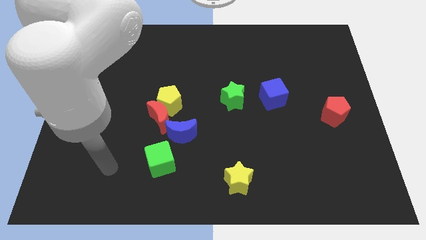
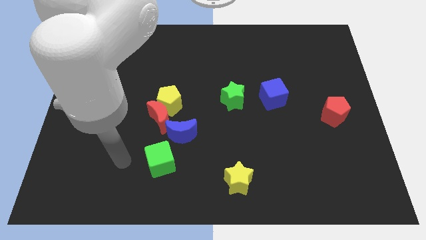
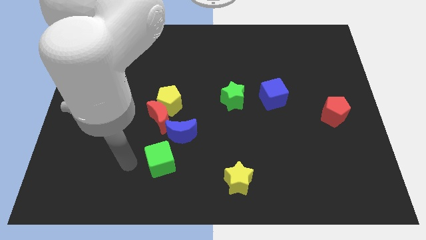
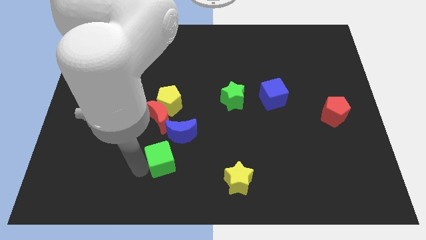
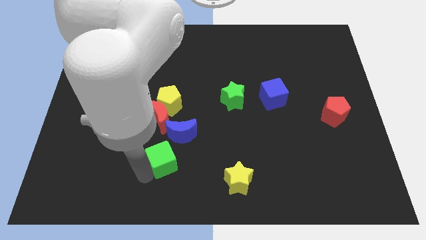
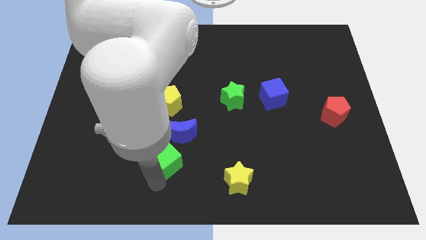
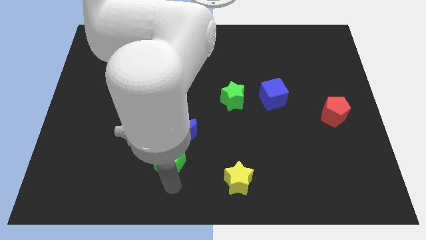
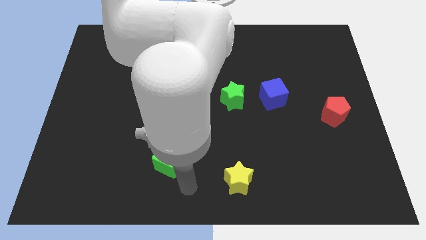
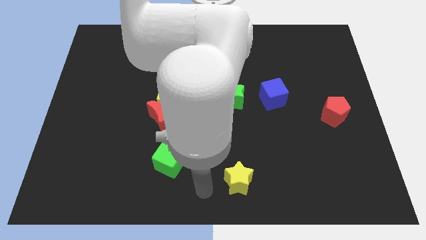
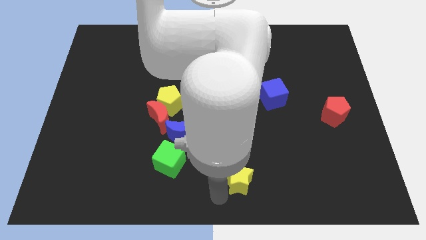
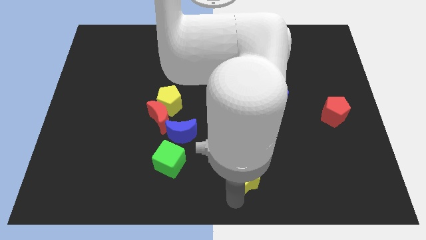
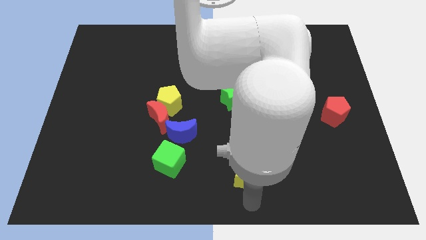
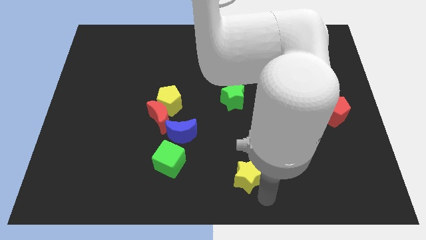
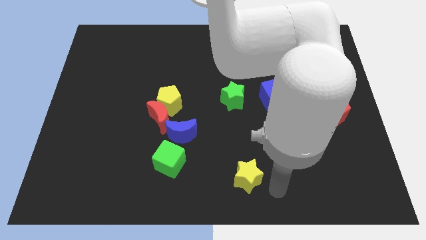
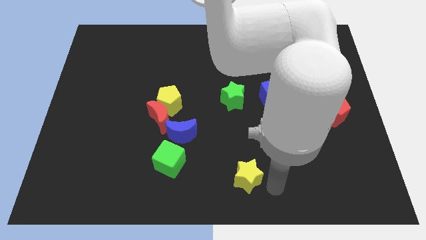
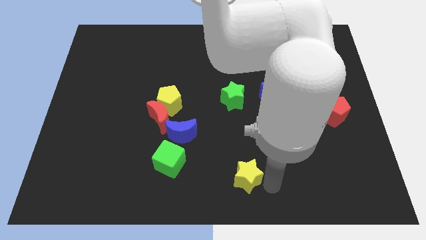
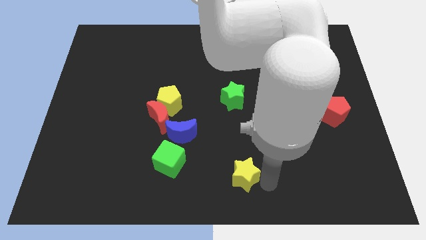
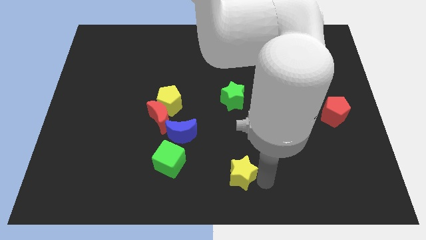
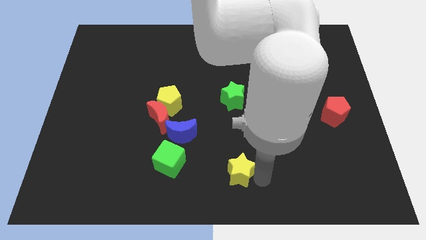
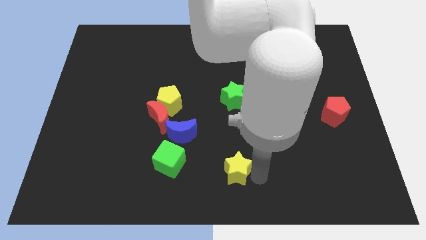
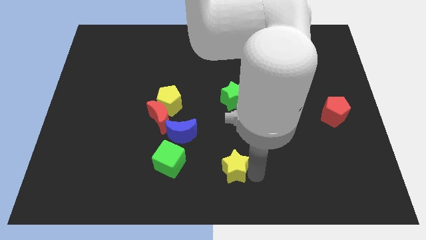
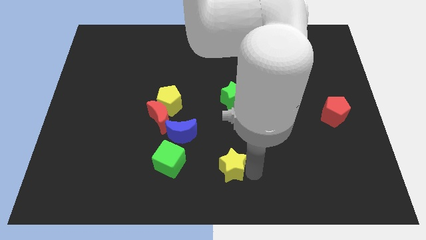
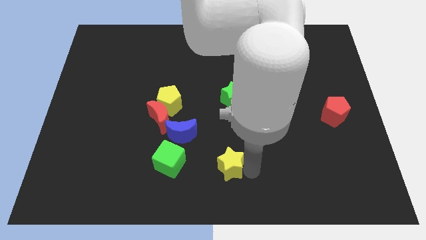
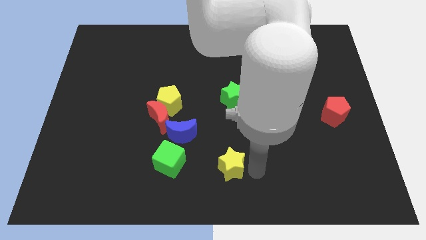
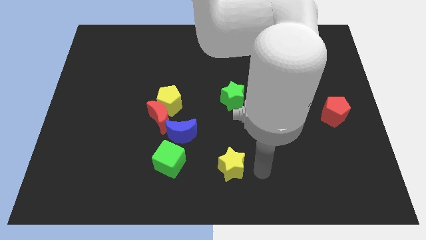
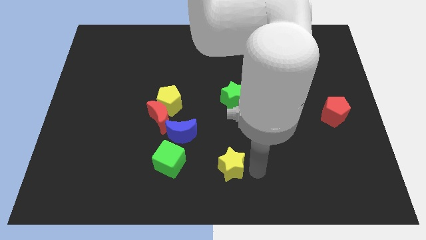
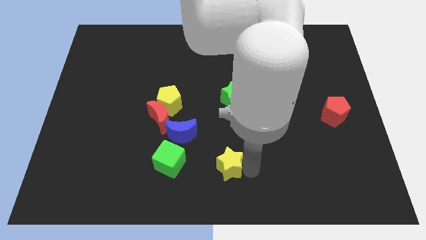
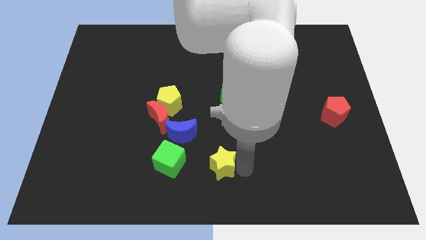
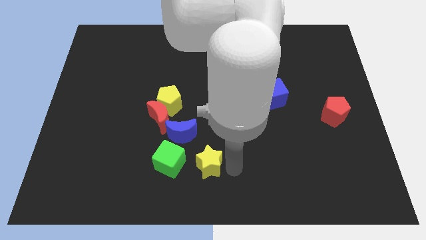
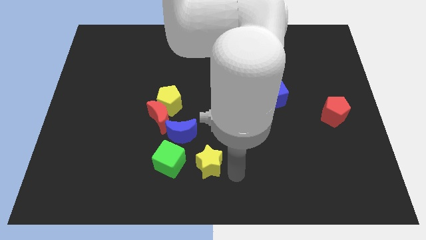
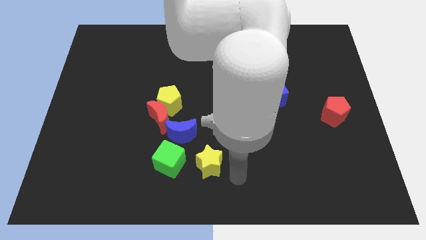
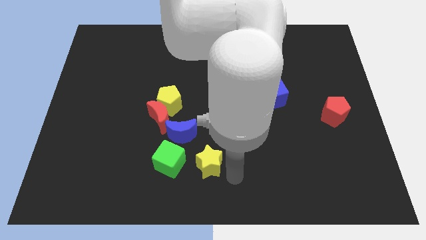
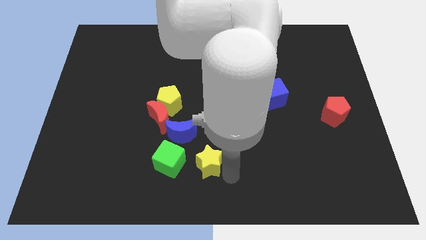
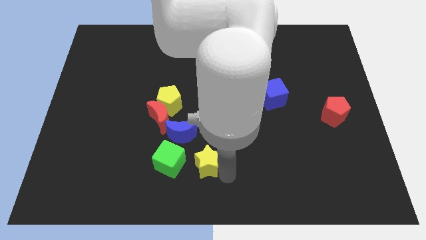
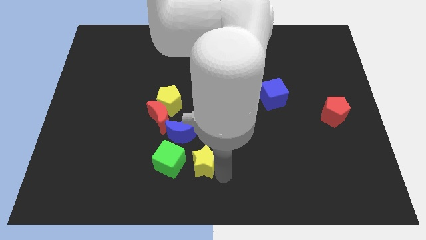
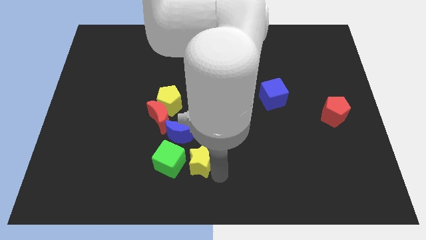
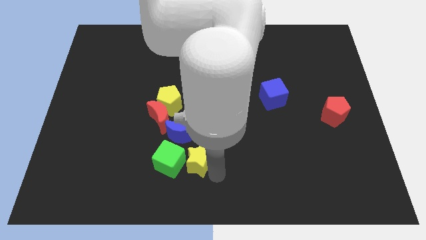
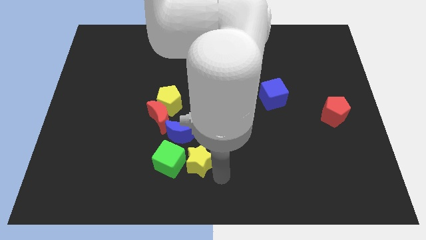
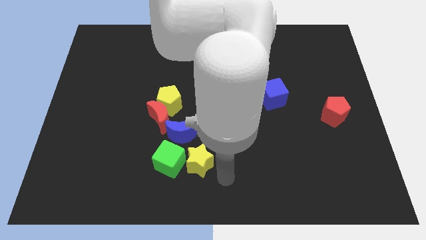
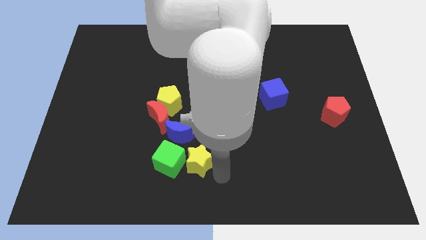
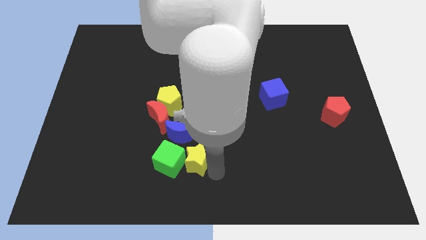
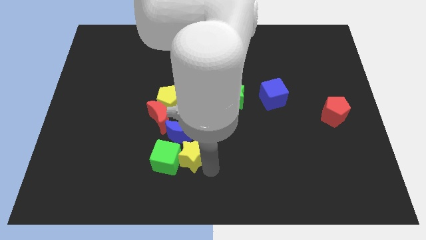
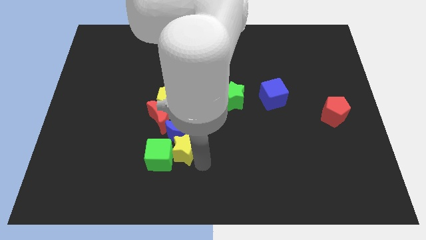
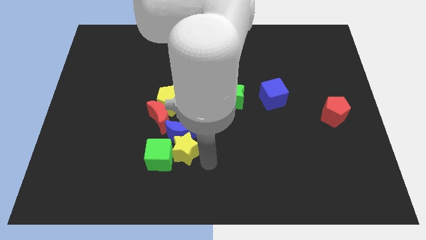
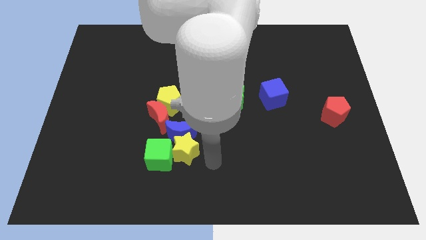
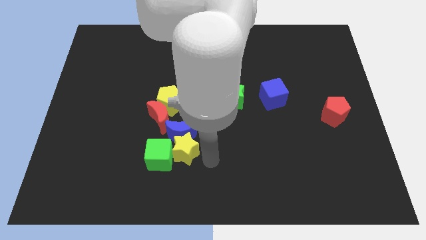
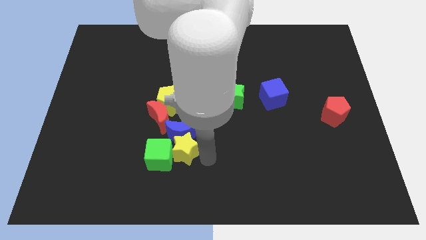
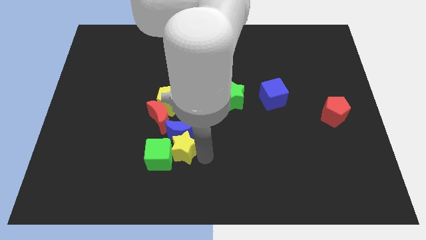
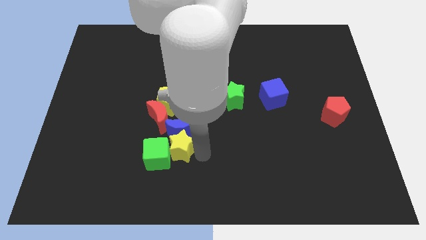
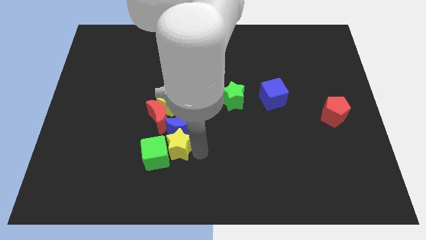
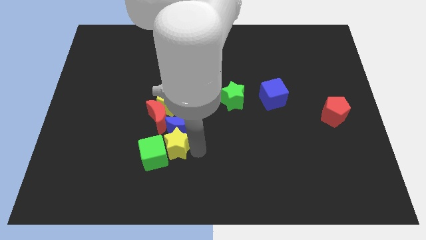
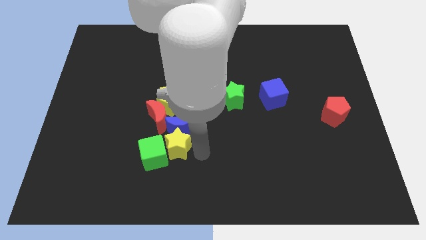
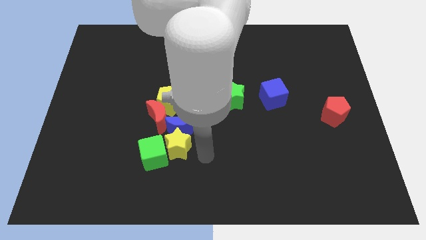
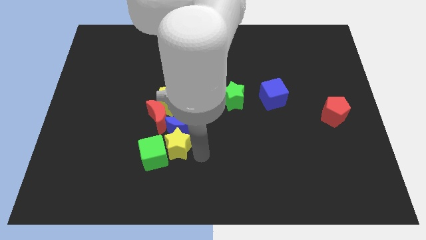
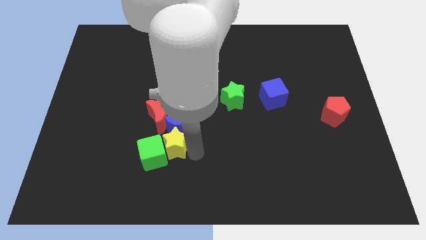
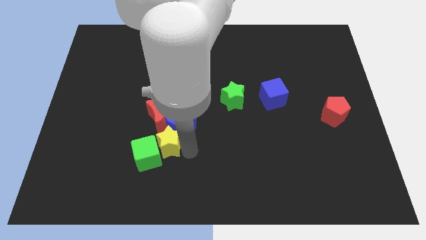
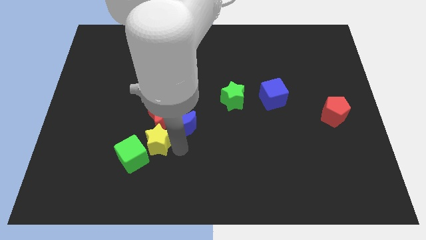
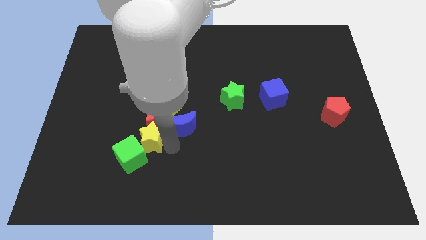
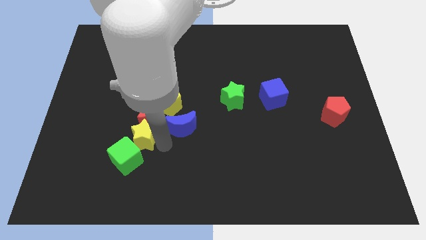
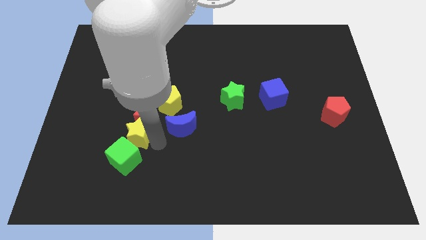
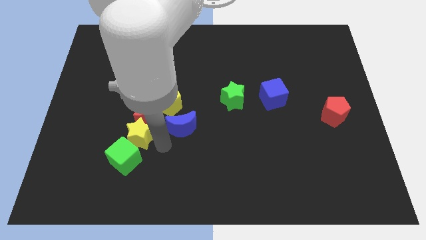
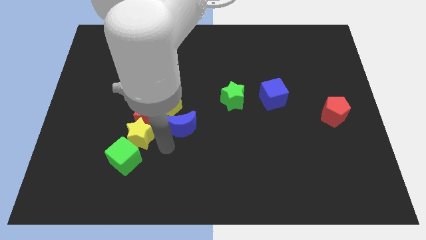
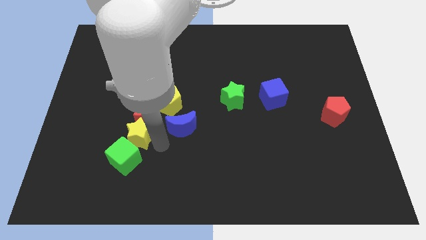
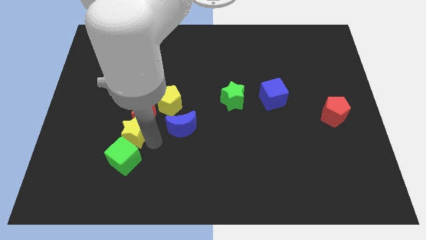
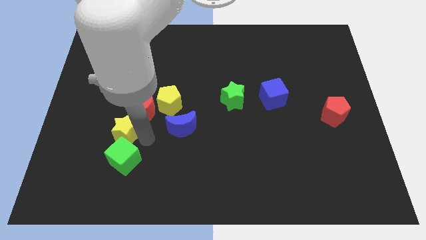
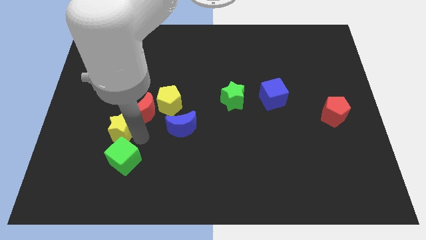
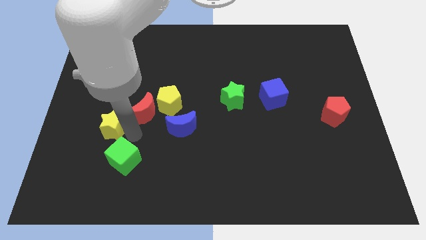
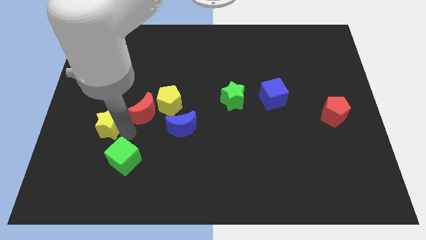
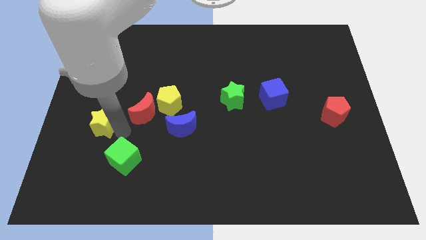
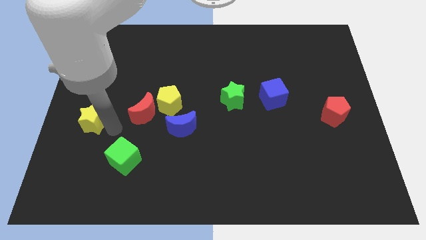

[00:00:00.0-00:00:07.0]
push the yellow star to the left side of the board
